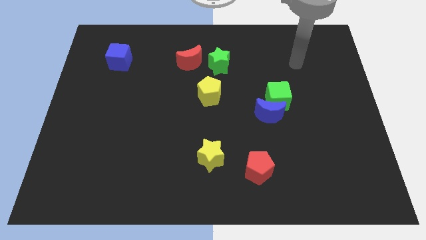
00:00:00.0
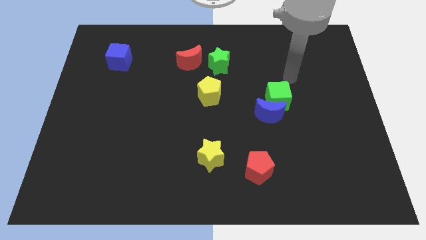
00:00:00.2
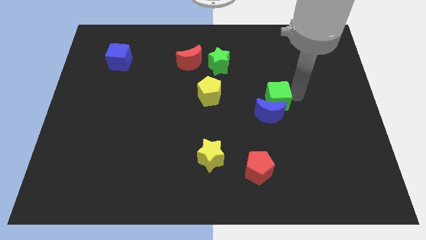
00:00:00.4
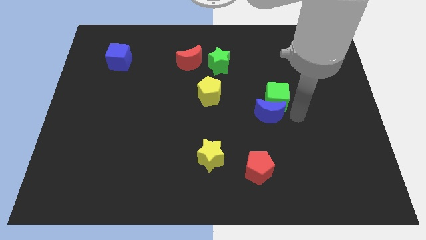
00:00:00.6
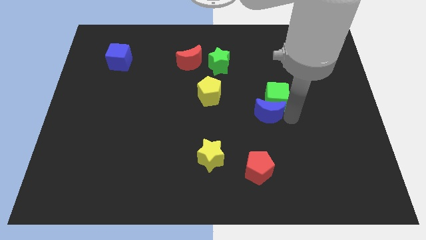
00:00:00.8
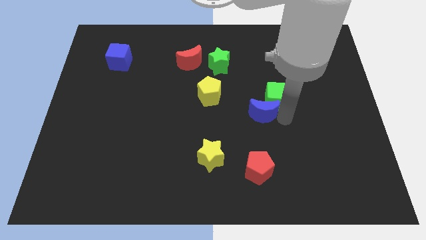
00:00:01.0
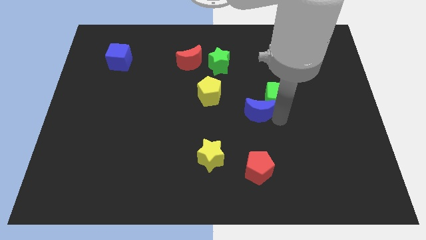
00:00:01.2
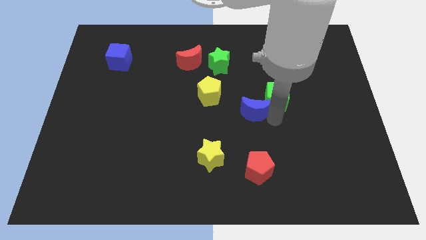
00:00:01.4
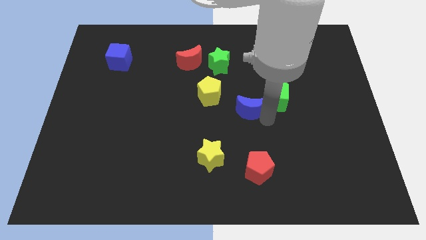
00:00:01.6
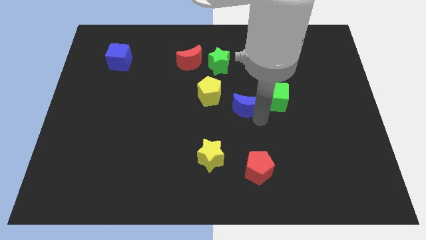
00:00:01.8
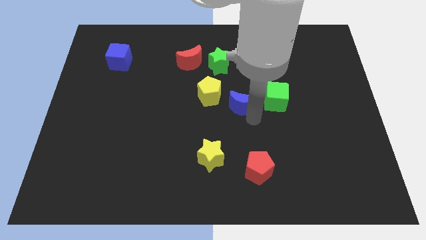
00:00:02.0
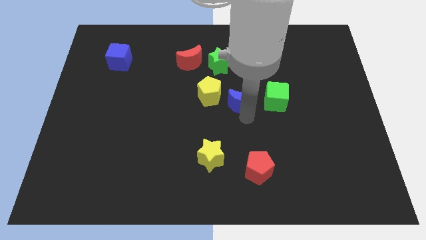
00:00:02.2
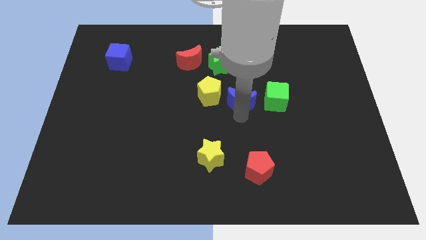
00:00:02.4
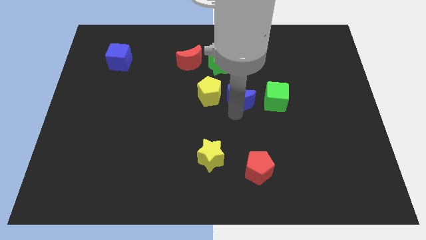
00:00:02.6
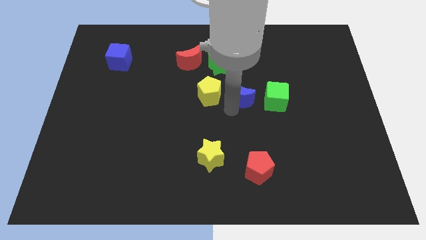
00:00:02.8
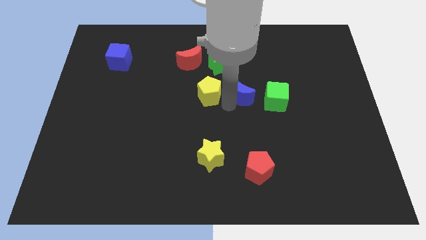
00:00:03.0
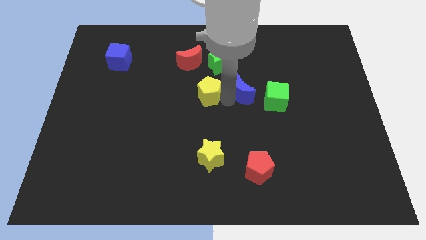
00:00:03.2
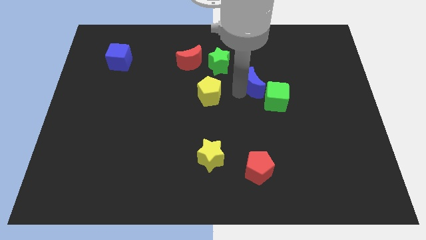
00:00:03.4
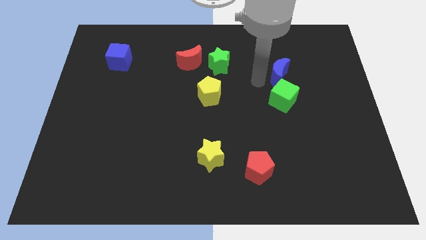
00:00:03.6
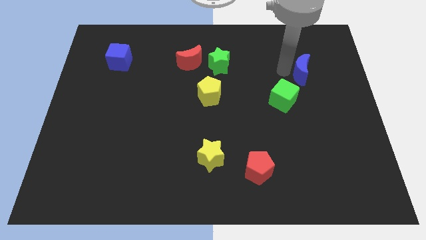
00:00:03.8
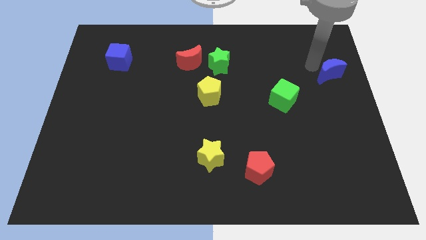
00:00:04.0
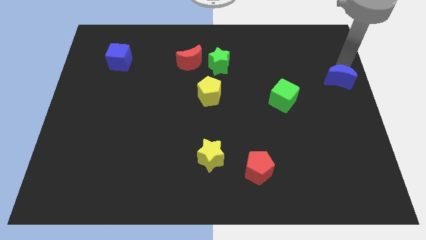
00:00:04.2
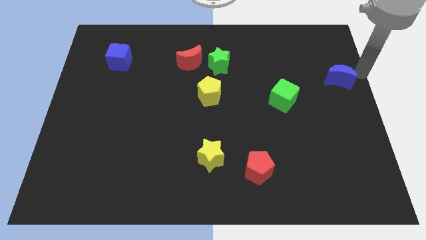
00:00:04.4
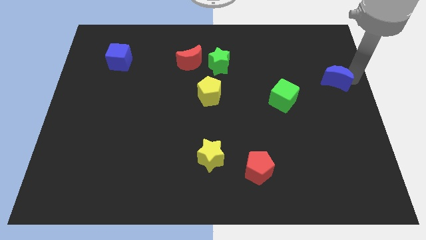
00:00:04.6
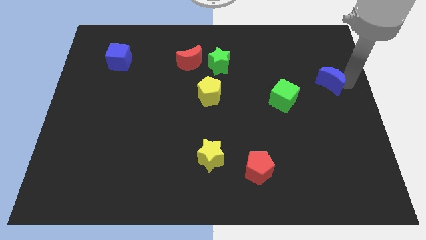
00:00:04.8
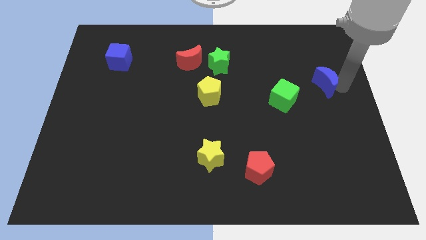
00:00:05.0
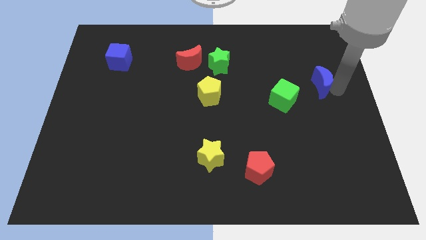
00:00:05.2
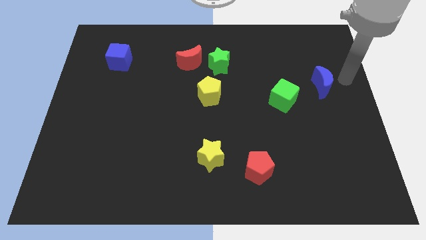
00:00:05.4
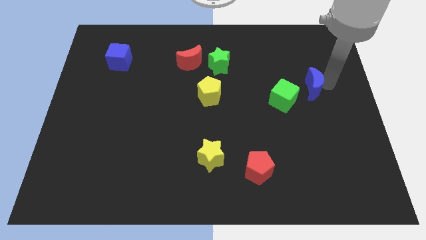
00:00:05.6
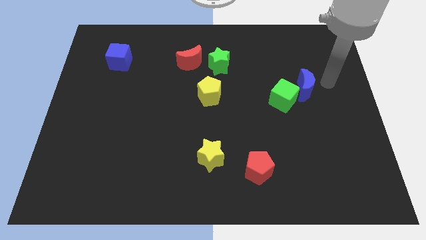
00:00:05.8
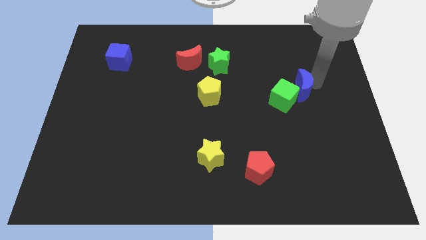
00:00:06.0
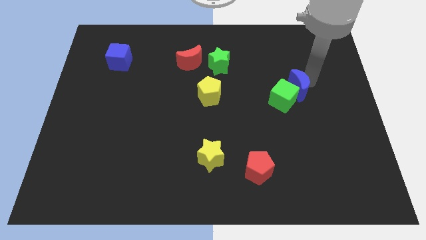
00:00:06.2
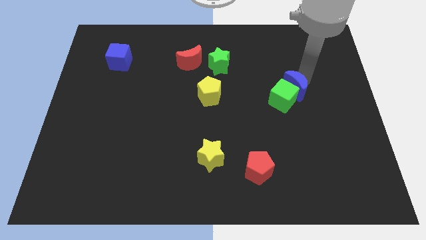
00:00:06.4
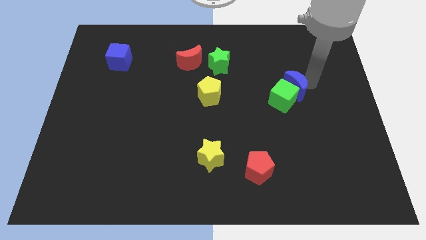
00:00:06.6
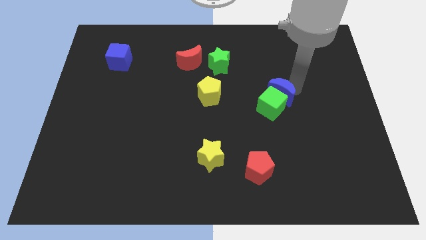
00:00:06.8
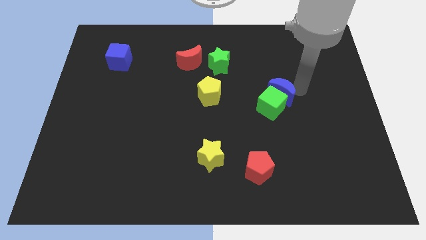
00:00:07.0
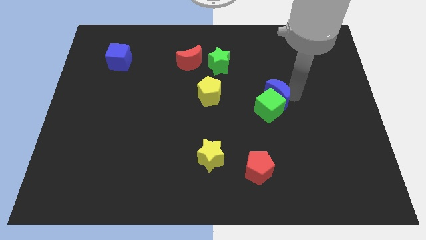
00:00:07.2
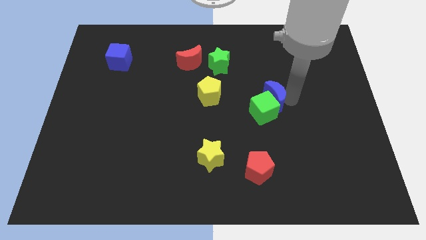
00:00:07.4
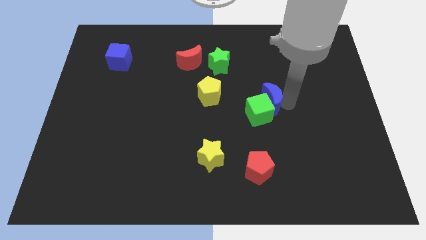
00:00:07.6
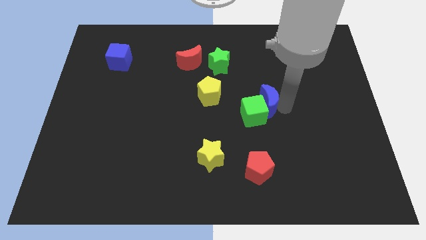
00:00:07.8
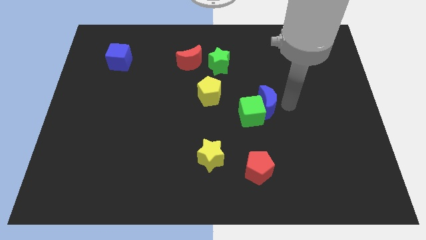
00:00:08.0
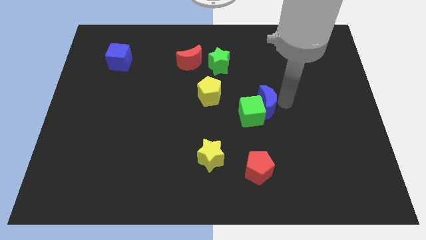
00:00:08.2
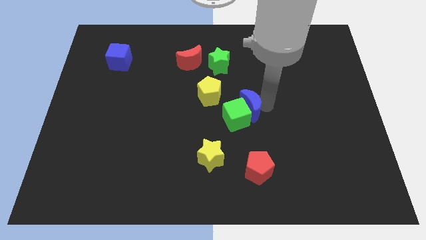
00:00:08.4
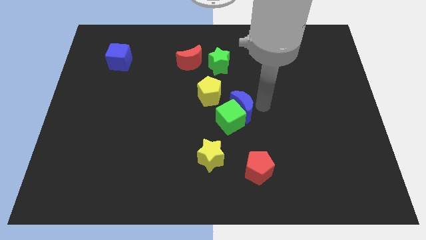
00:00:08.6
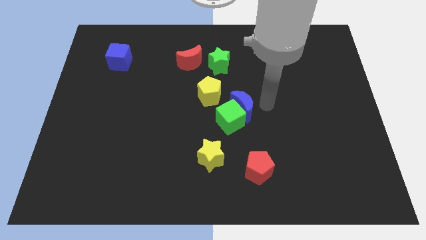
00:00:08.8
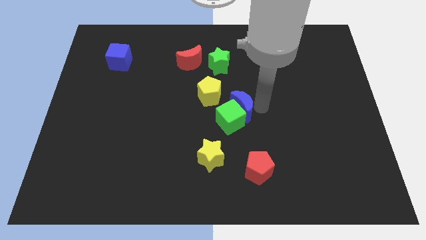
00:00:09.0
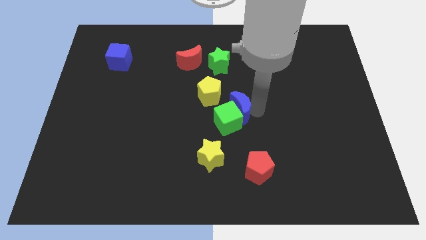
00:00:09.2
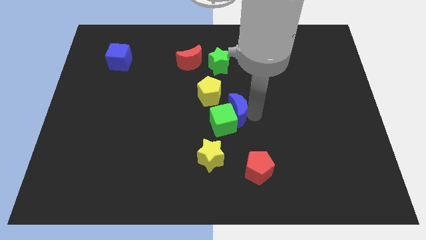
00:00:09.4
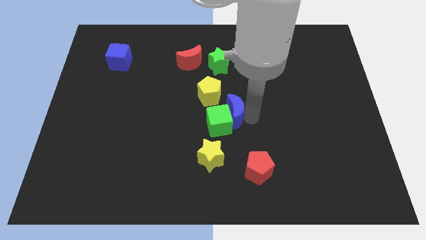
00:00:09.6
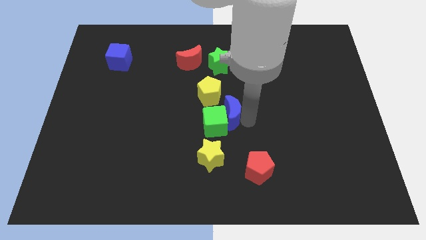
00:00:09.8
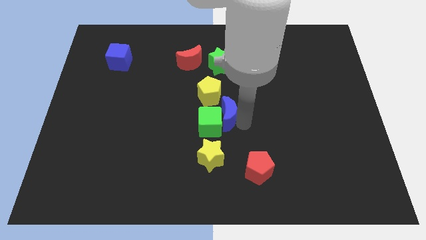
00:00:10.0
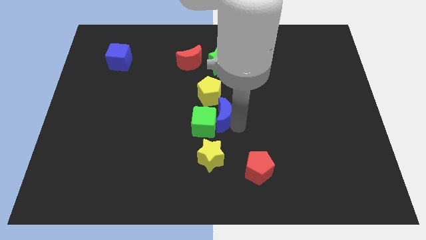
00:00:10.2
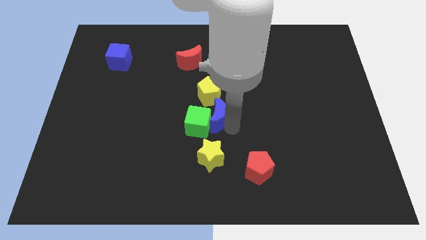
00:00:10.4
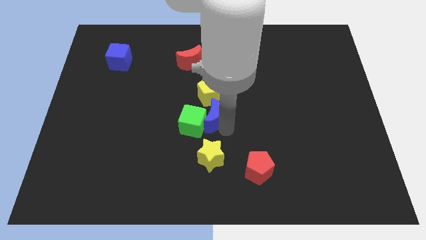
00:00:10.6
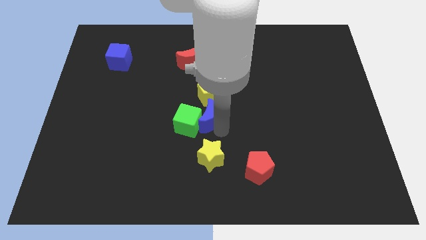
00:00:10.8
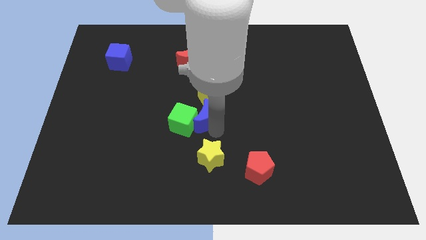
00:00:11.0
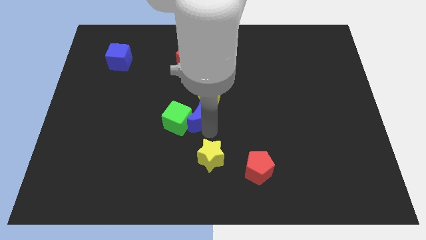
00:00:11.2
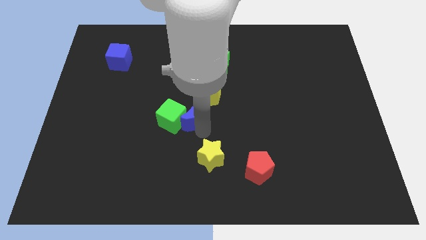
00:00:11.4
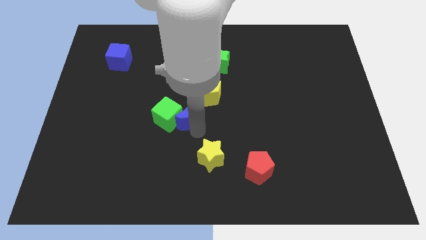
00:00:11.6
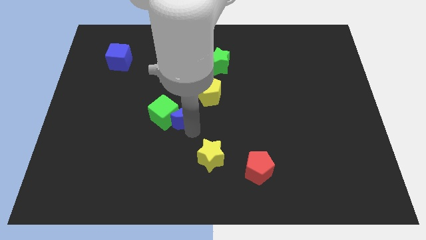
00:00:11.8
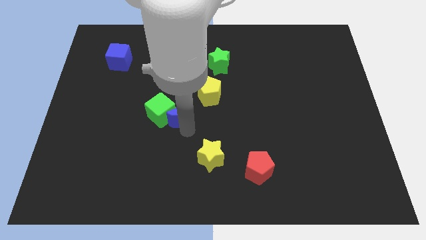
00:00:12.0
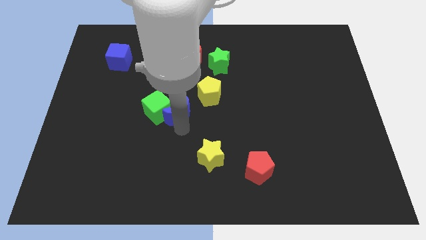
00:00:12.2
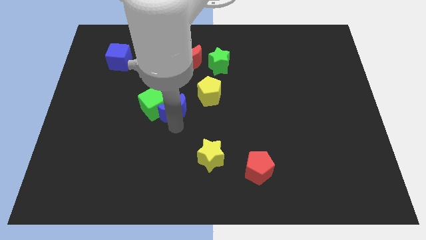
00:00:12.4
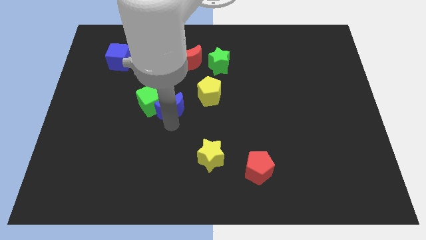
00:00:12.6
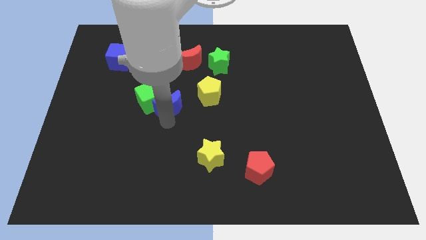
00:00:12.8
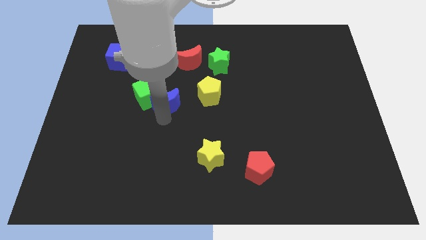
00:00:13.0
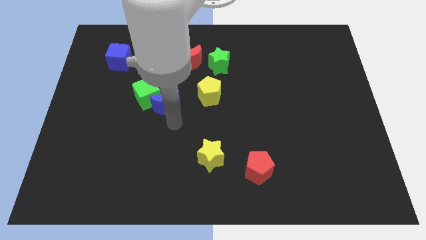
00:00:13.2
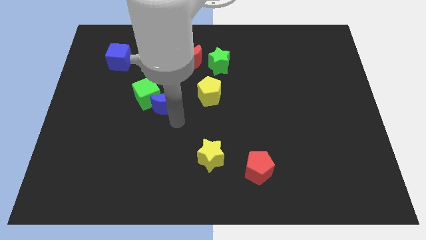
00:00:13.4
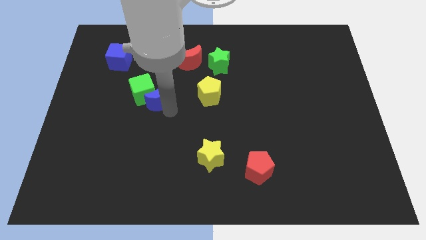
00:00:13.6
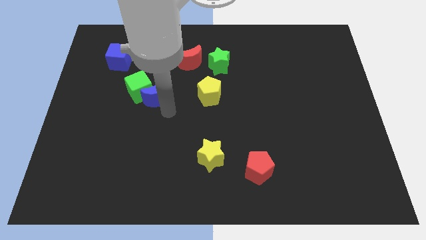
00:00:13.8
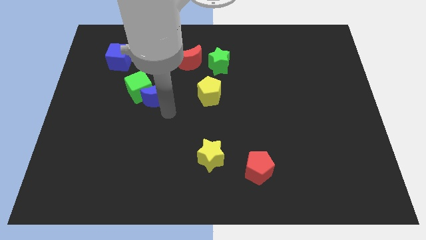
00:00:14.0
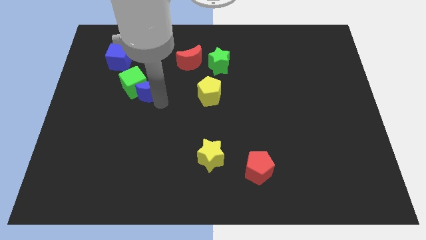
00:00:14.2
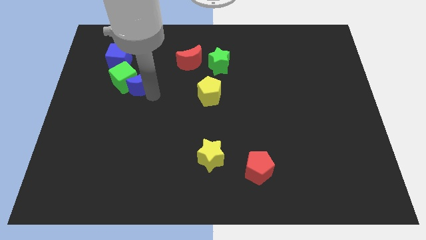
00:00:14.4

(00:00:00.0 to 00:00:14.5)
move the blue moon to the bottom right of the blue cube
